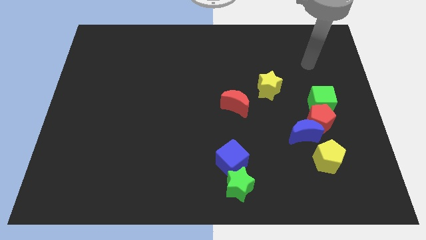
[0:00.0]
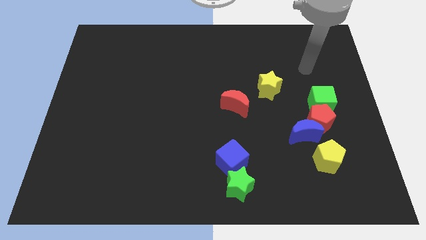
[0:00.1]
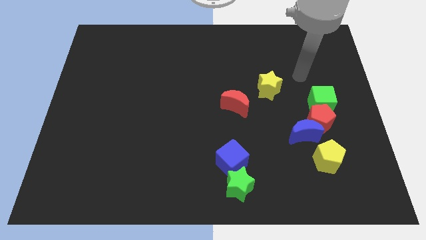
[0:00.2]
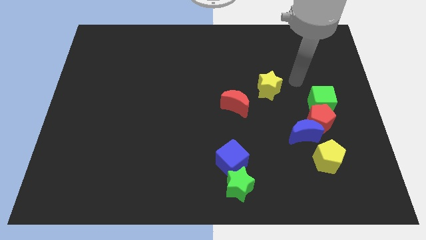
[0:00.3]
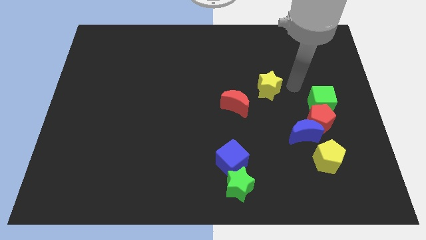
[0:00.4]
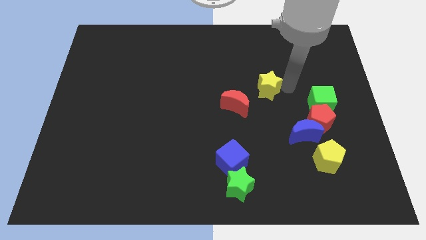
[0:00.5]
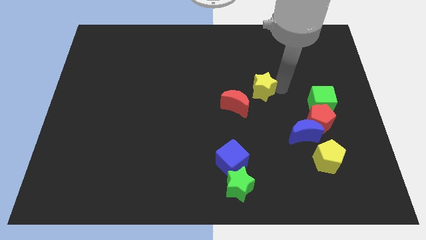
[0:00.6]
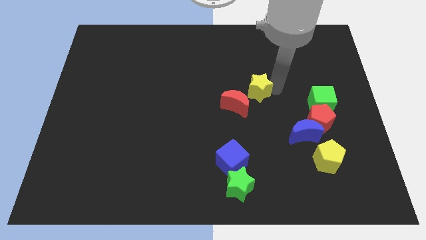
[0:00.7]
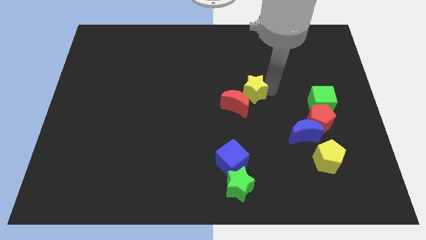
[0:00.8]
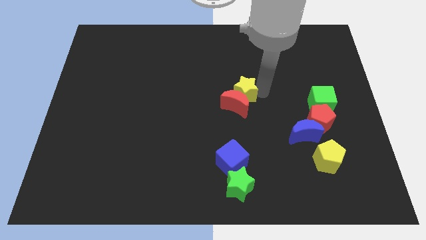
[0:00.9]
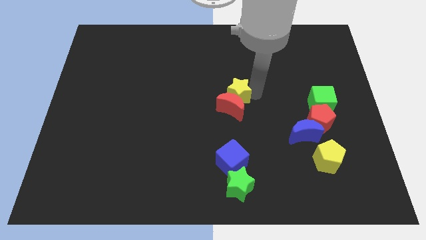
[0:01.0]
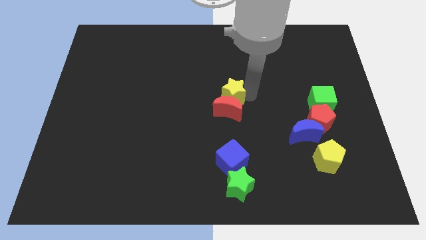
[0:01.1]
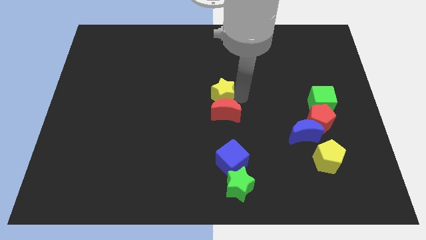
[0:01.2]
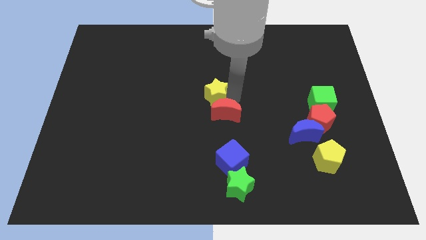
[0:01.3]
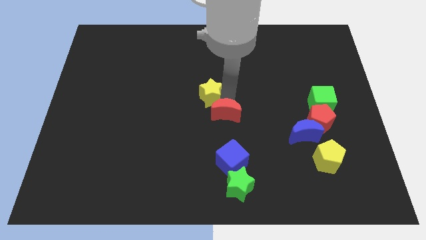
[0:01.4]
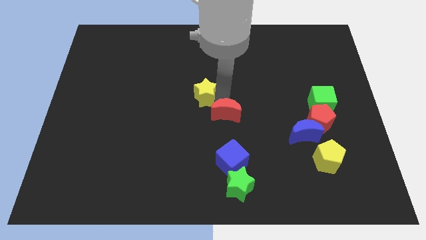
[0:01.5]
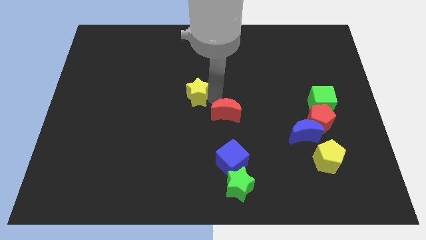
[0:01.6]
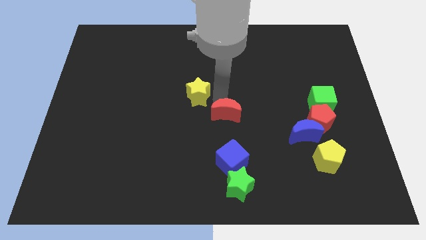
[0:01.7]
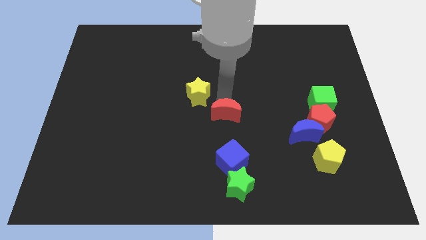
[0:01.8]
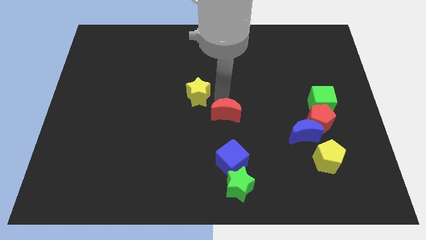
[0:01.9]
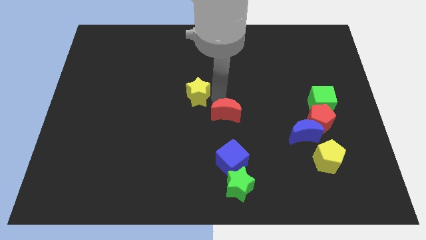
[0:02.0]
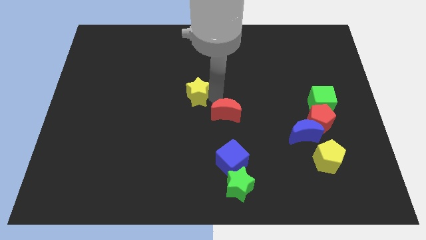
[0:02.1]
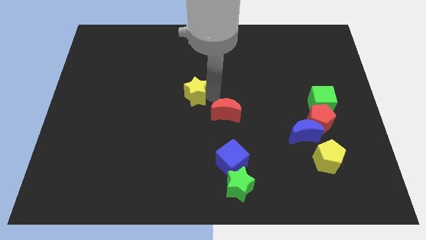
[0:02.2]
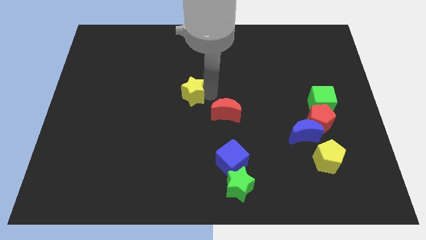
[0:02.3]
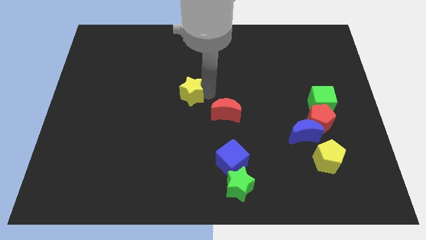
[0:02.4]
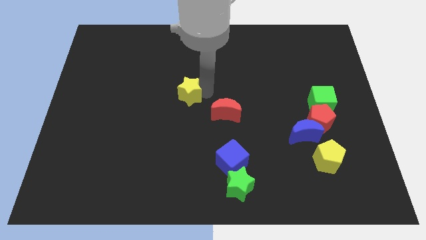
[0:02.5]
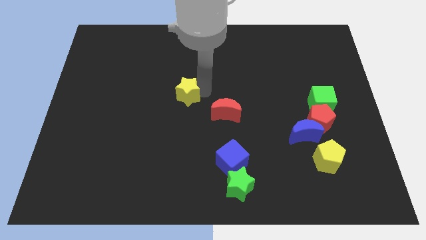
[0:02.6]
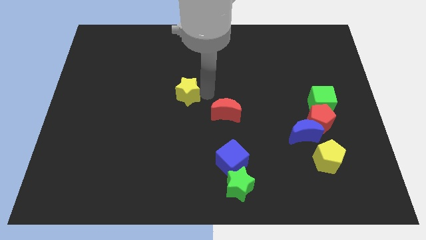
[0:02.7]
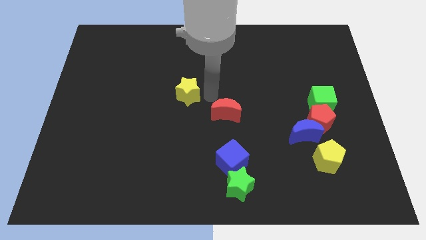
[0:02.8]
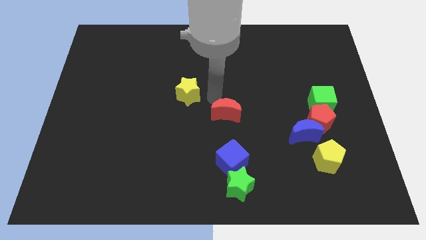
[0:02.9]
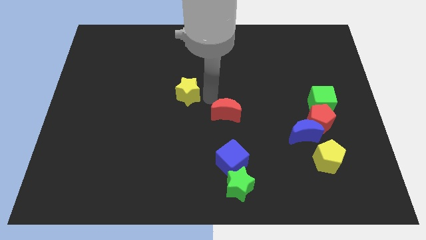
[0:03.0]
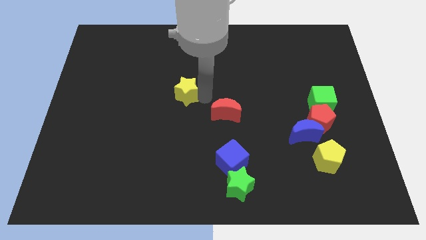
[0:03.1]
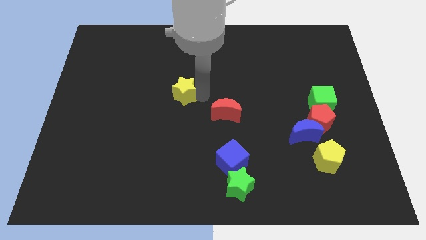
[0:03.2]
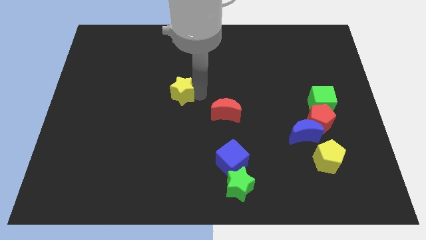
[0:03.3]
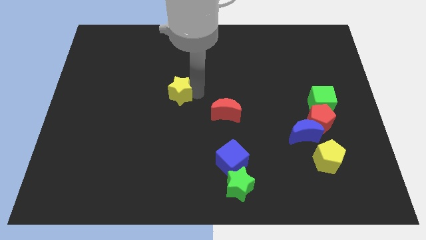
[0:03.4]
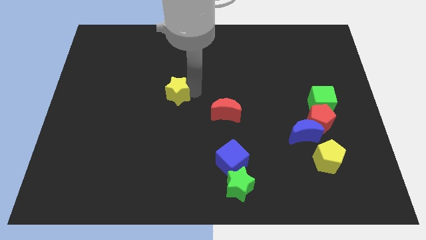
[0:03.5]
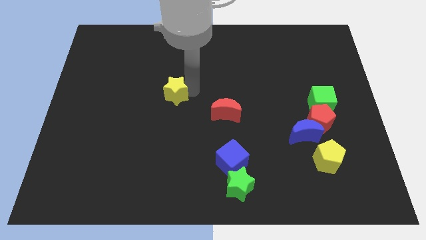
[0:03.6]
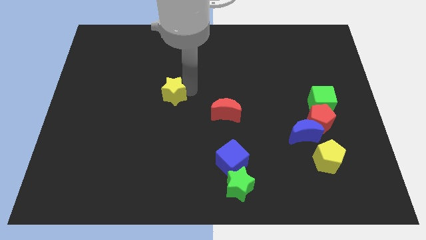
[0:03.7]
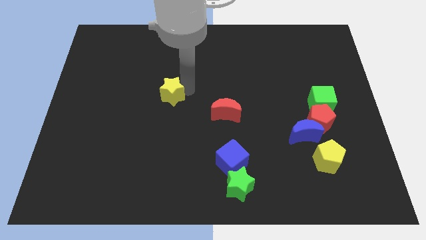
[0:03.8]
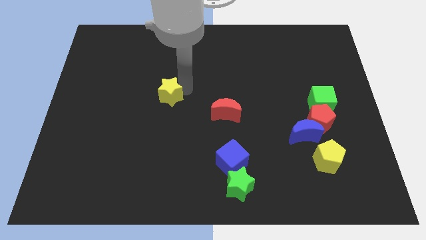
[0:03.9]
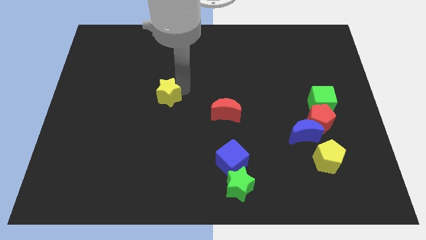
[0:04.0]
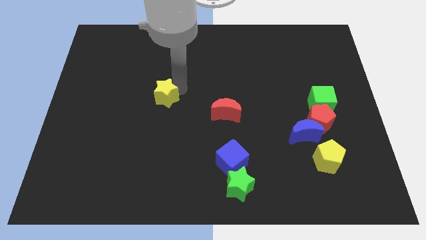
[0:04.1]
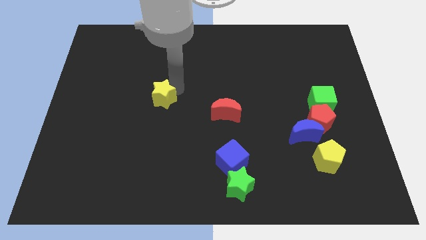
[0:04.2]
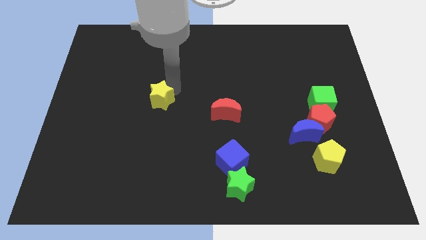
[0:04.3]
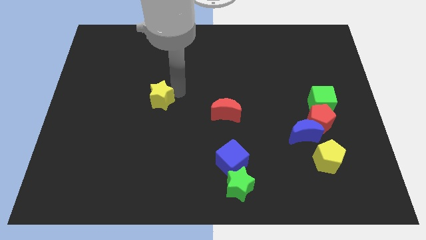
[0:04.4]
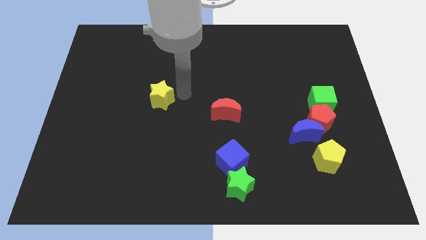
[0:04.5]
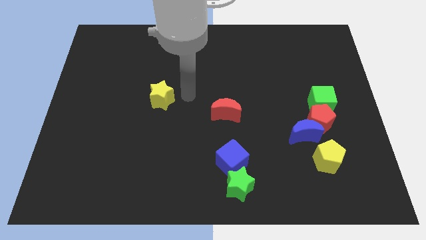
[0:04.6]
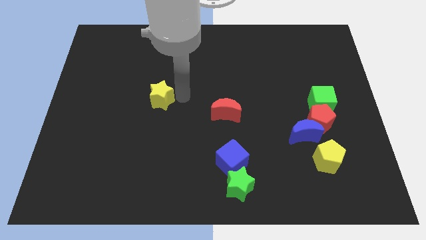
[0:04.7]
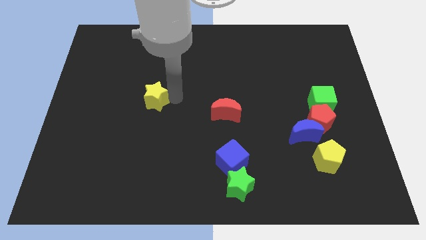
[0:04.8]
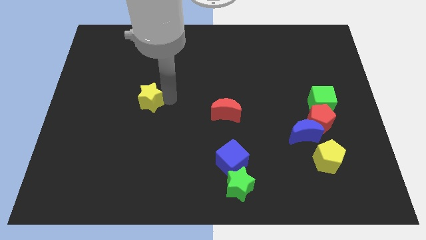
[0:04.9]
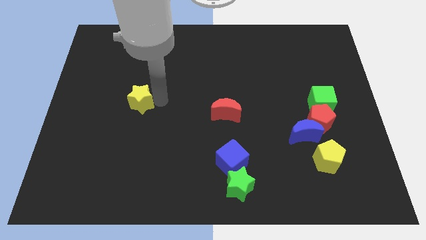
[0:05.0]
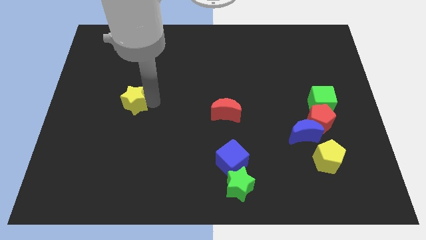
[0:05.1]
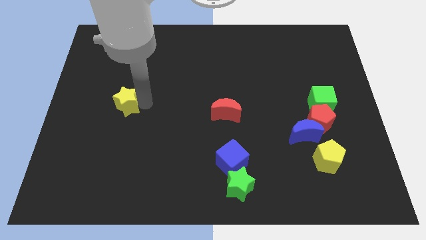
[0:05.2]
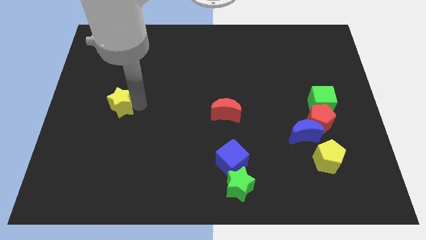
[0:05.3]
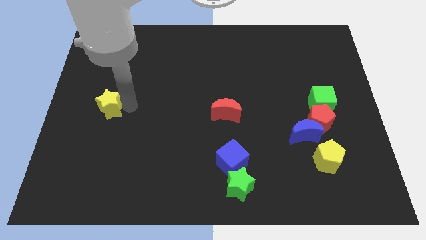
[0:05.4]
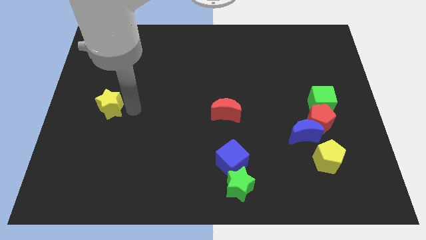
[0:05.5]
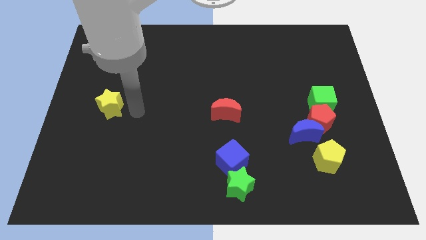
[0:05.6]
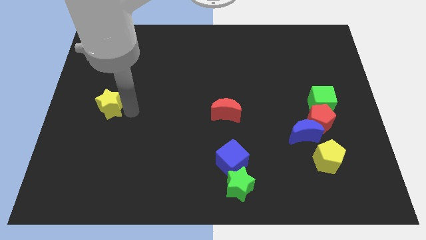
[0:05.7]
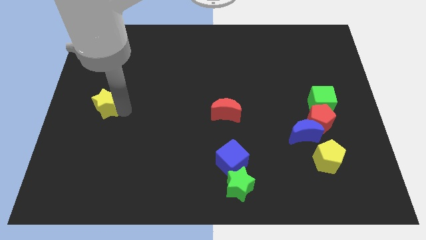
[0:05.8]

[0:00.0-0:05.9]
move the yellow star to the center left

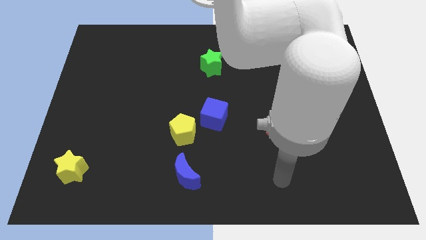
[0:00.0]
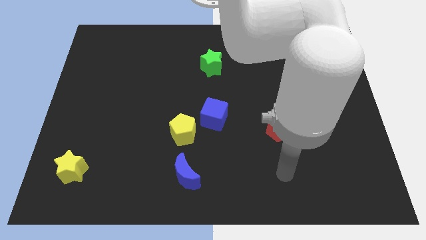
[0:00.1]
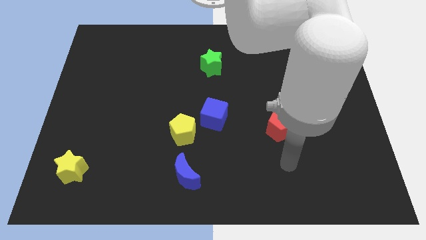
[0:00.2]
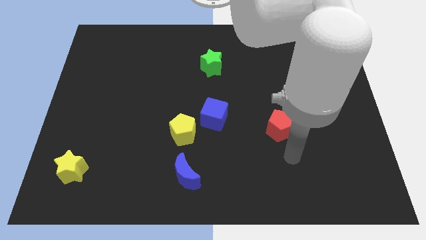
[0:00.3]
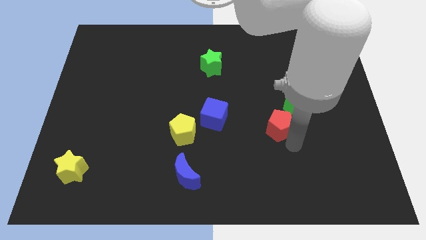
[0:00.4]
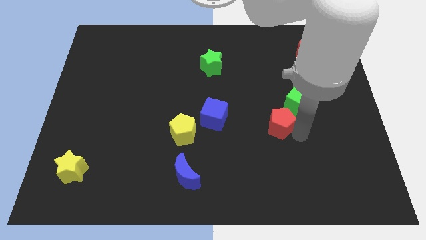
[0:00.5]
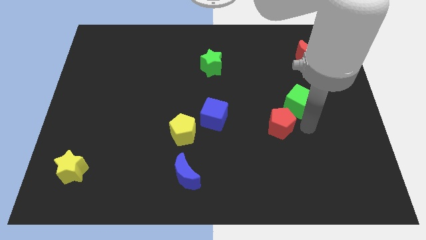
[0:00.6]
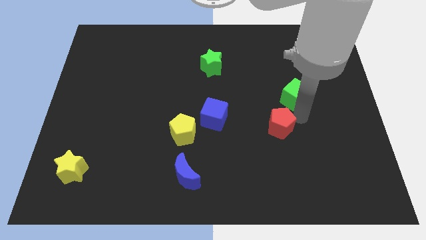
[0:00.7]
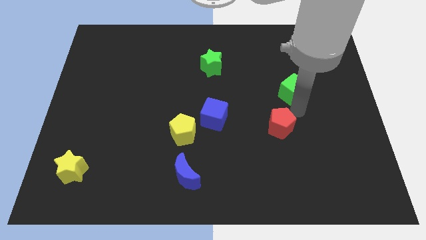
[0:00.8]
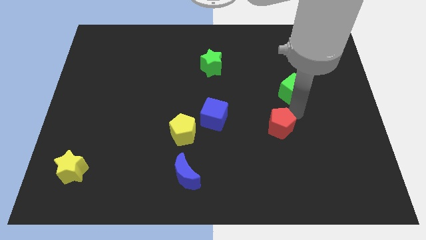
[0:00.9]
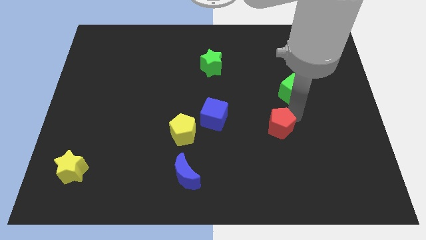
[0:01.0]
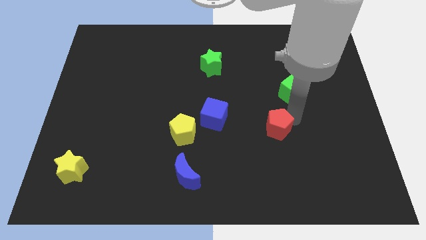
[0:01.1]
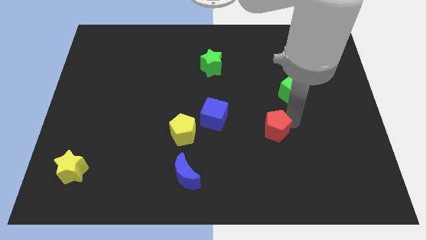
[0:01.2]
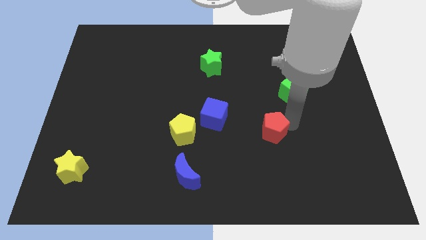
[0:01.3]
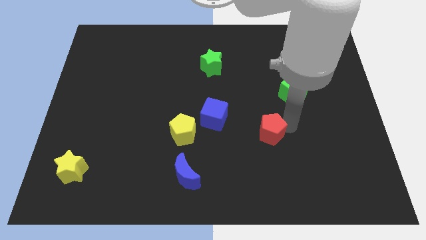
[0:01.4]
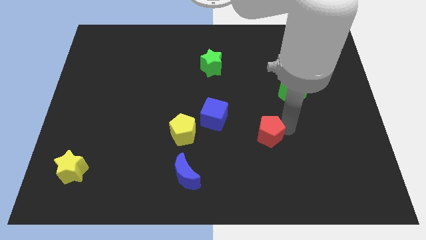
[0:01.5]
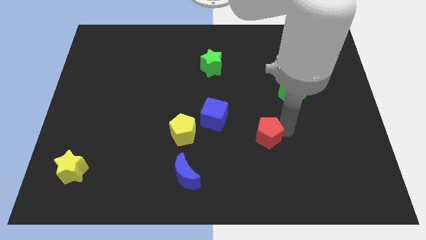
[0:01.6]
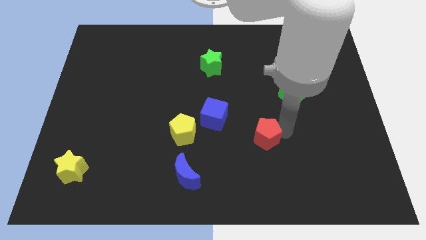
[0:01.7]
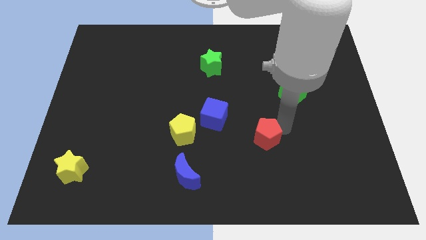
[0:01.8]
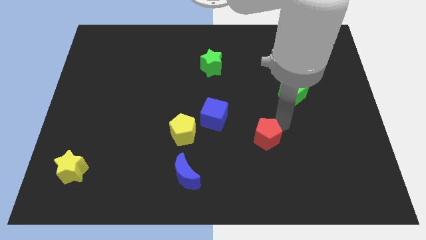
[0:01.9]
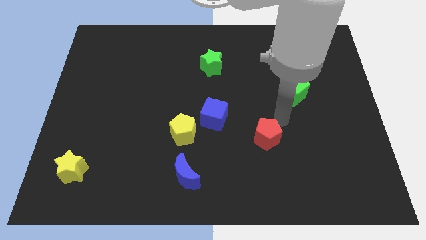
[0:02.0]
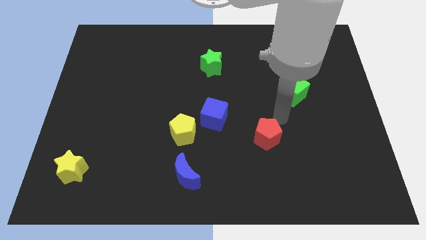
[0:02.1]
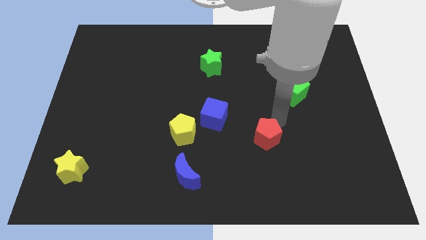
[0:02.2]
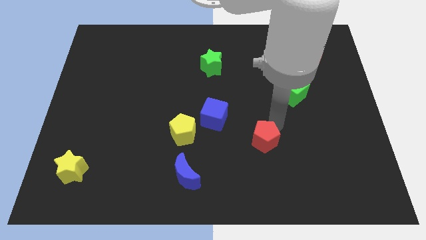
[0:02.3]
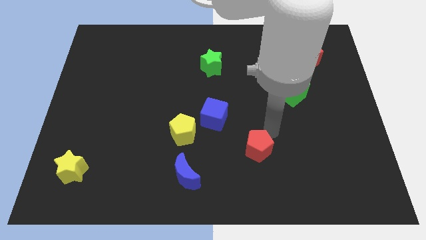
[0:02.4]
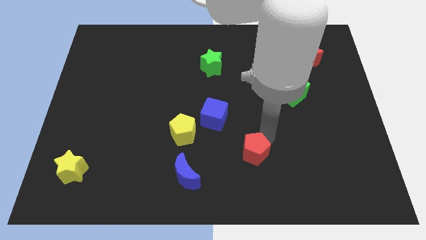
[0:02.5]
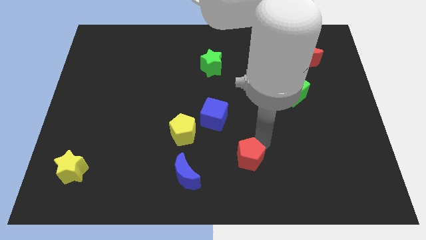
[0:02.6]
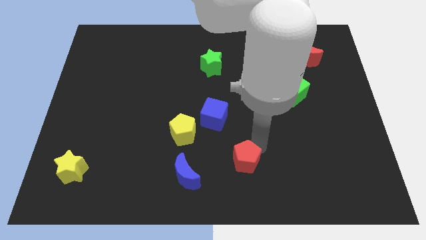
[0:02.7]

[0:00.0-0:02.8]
put the red pentagon to the bottom side
